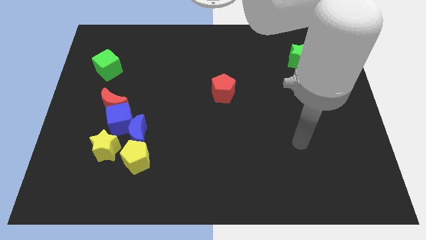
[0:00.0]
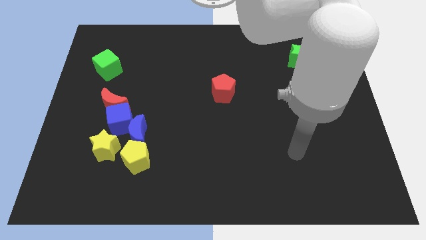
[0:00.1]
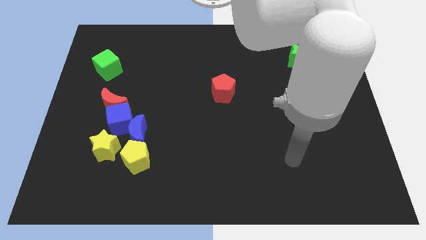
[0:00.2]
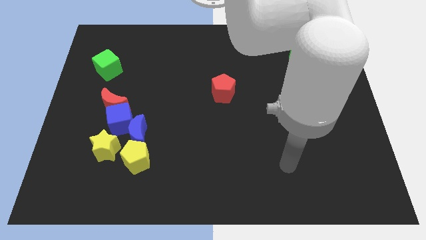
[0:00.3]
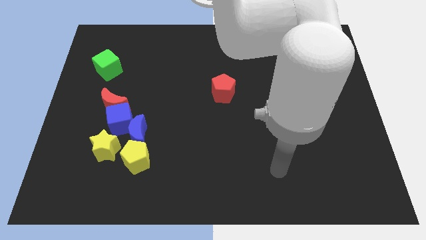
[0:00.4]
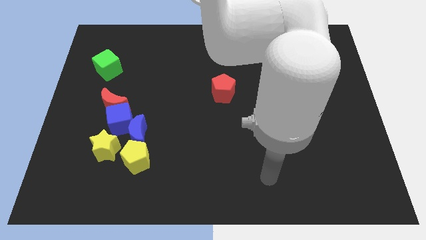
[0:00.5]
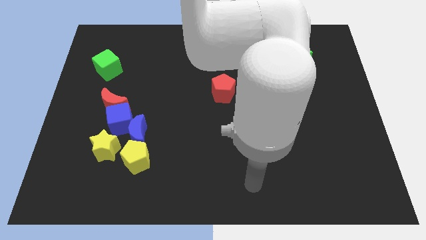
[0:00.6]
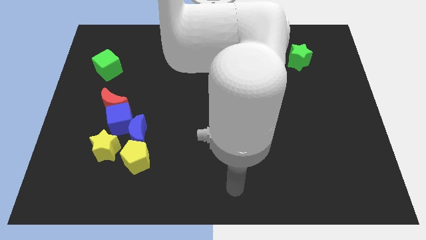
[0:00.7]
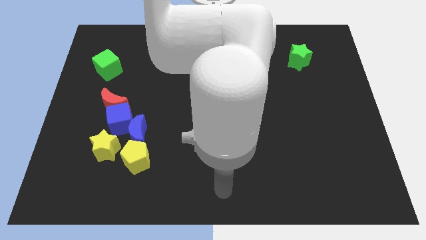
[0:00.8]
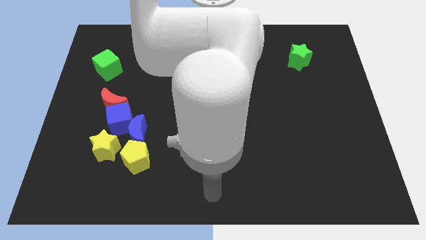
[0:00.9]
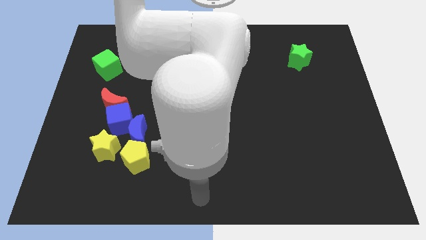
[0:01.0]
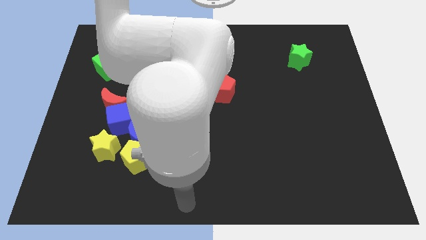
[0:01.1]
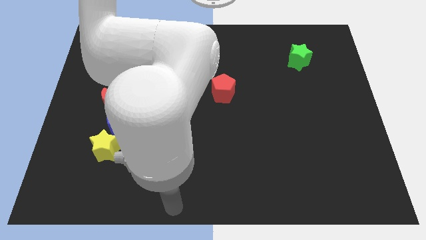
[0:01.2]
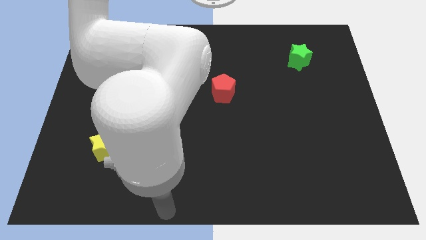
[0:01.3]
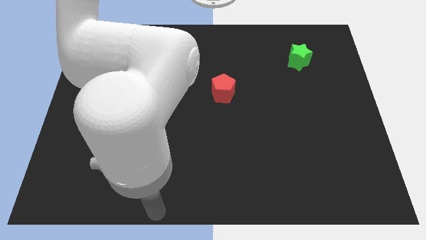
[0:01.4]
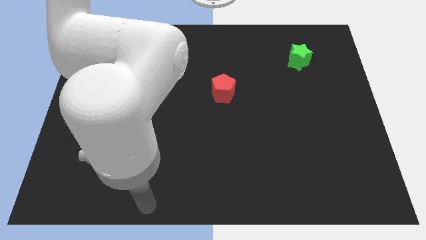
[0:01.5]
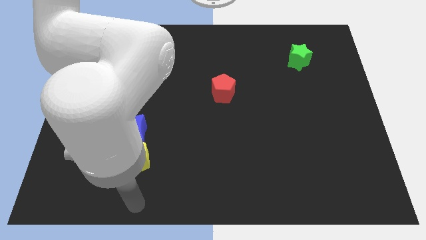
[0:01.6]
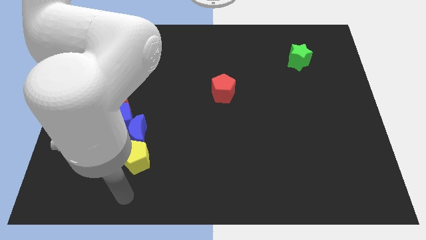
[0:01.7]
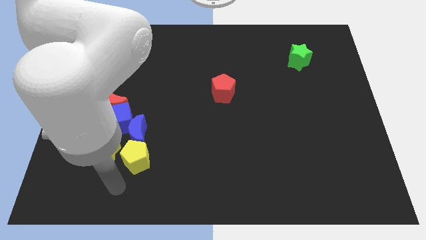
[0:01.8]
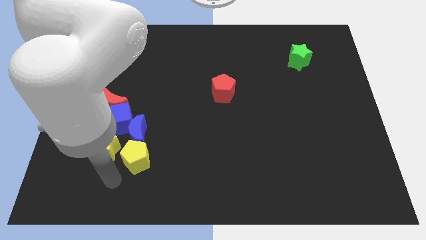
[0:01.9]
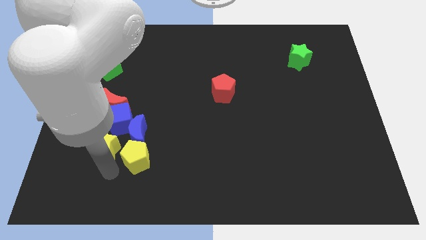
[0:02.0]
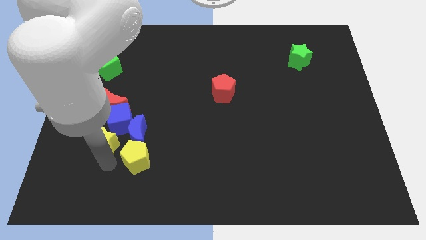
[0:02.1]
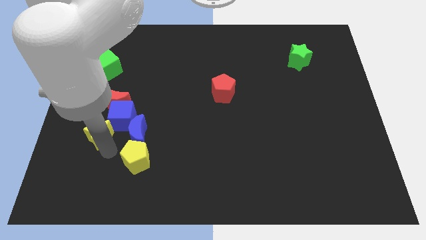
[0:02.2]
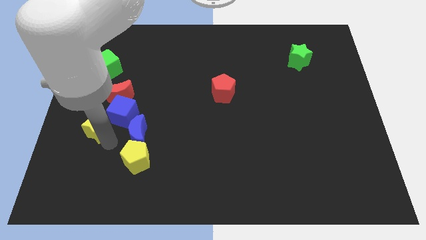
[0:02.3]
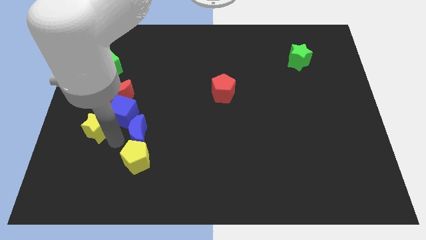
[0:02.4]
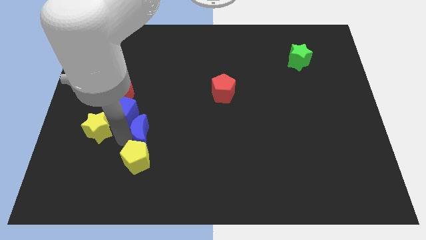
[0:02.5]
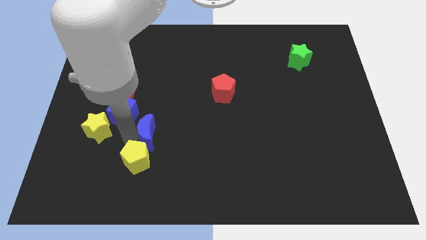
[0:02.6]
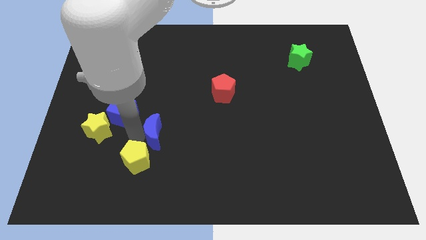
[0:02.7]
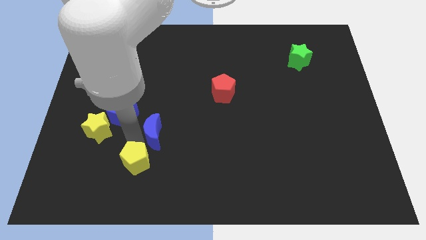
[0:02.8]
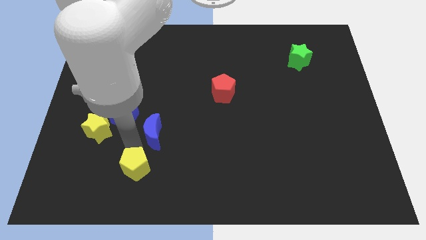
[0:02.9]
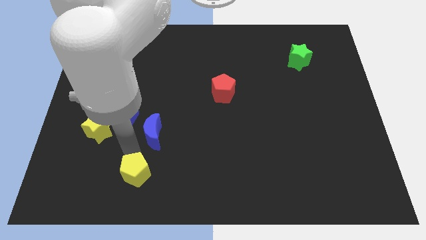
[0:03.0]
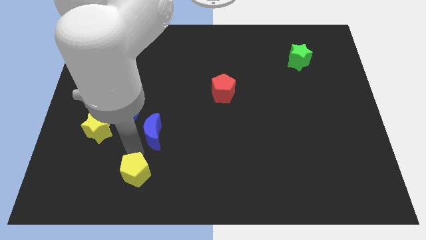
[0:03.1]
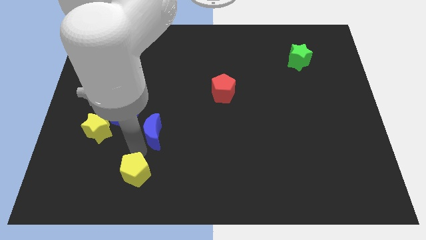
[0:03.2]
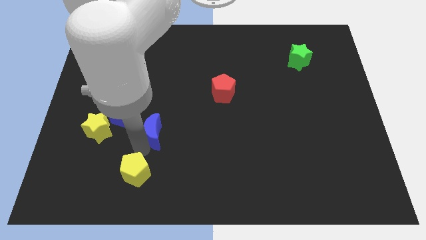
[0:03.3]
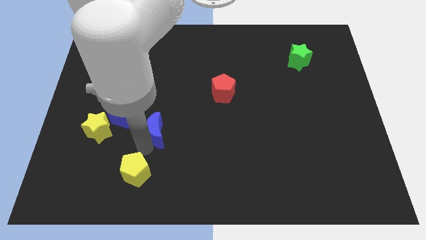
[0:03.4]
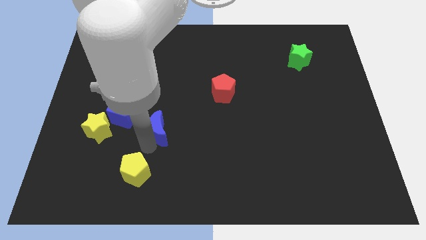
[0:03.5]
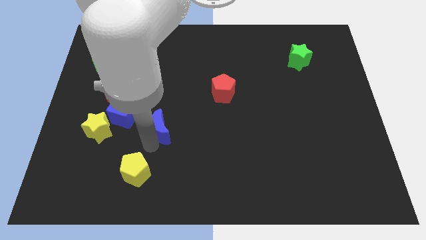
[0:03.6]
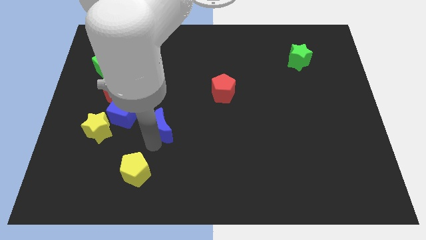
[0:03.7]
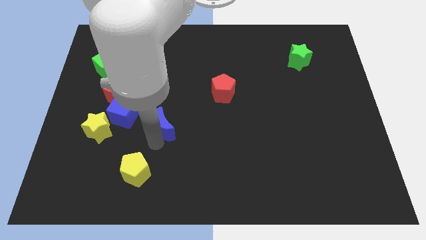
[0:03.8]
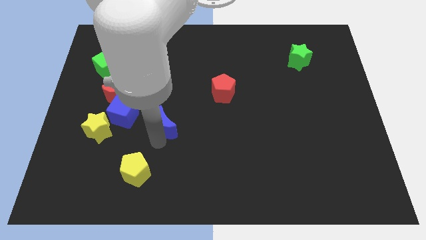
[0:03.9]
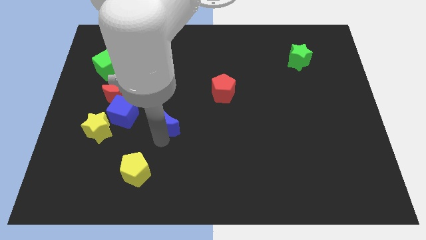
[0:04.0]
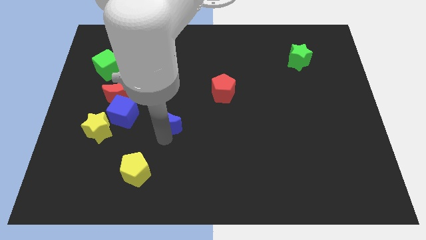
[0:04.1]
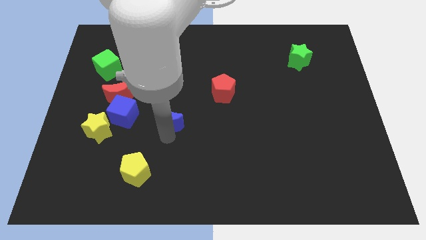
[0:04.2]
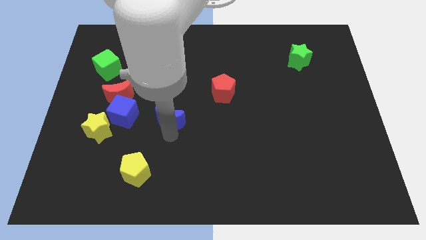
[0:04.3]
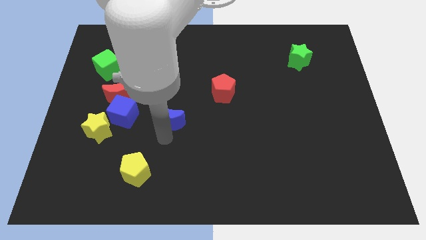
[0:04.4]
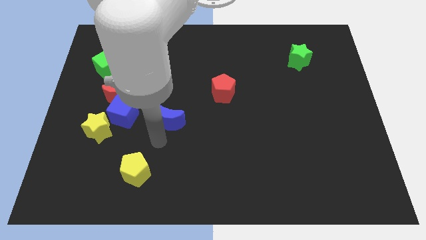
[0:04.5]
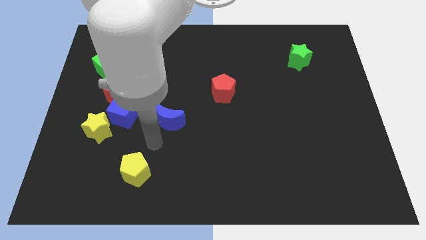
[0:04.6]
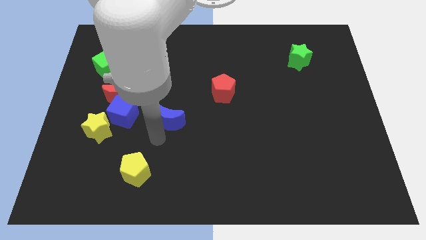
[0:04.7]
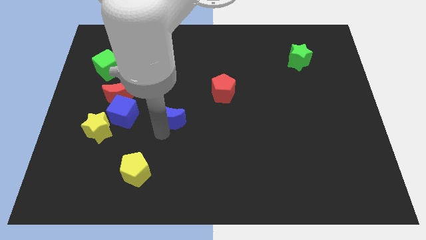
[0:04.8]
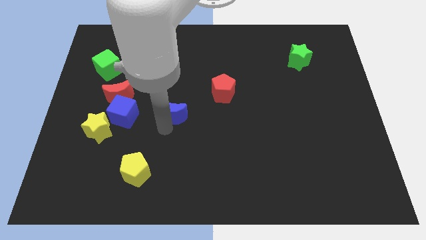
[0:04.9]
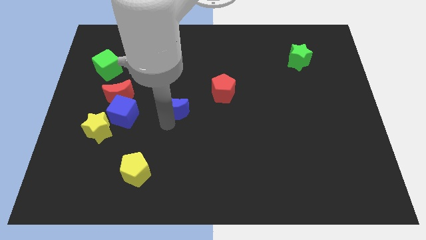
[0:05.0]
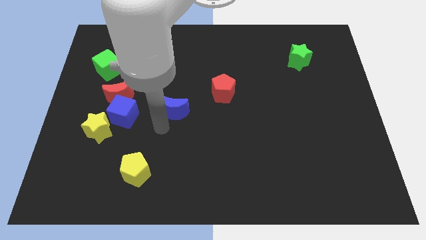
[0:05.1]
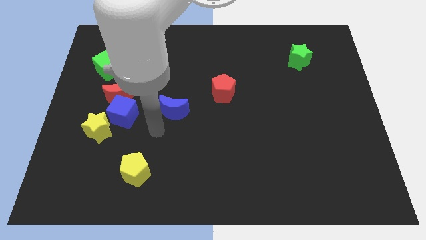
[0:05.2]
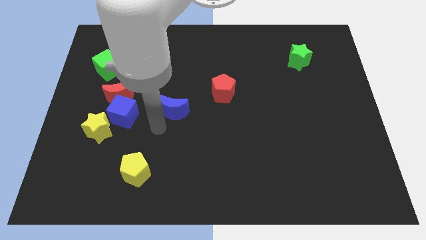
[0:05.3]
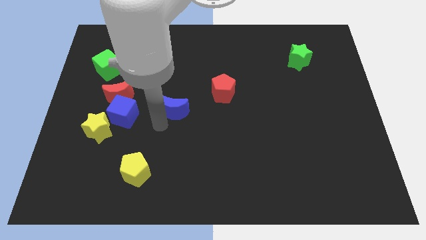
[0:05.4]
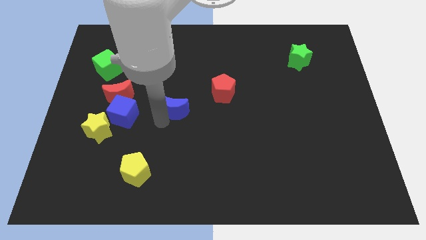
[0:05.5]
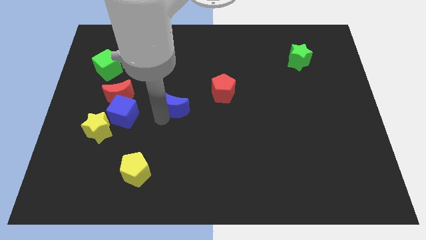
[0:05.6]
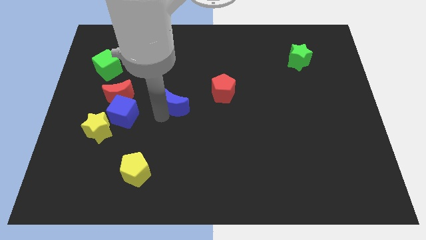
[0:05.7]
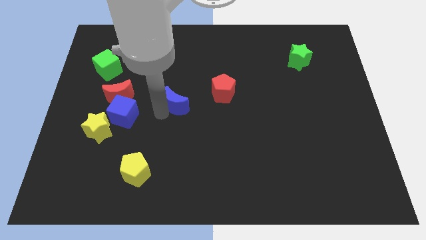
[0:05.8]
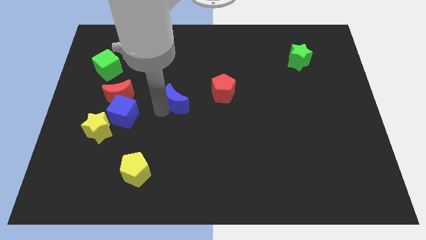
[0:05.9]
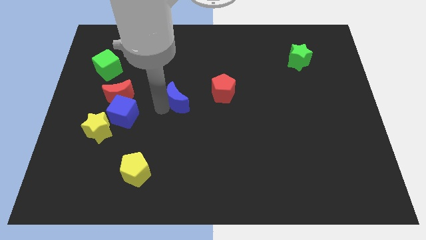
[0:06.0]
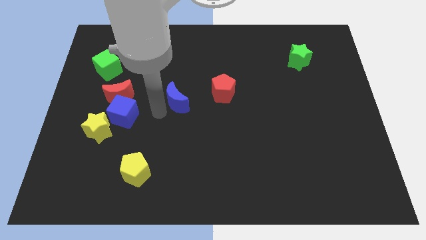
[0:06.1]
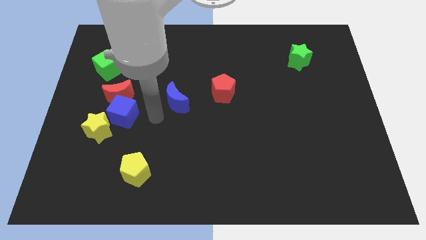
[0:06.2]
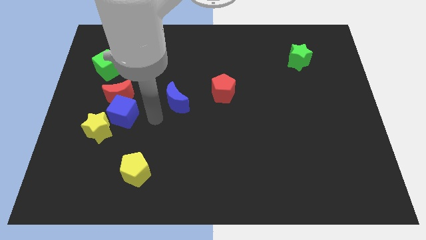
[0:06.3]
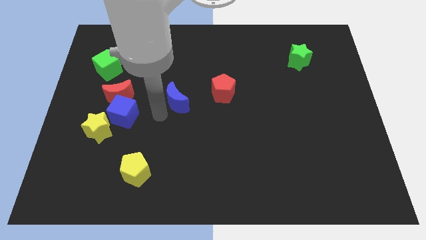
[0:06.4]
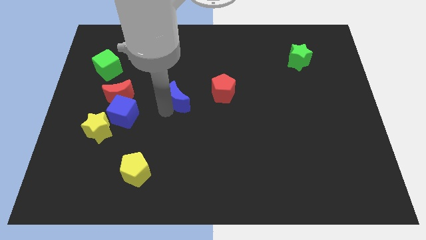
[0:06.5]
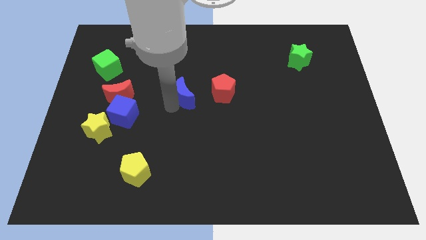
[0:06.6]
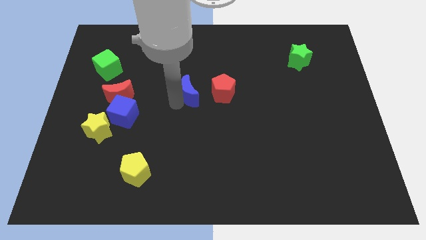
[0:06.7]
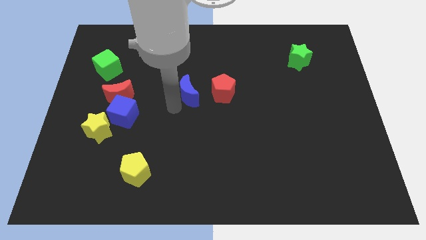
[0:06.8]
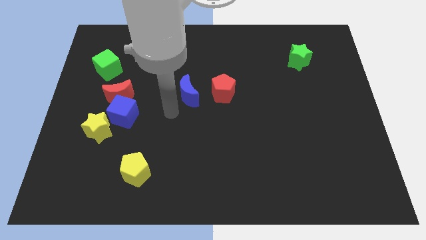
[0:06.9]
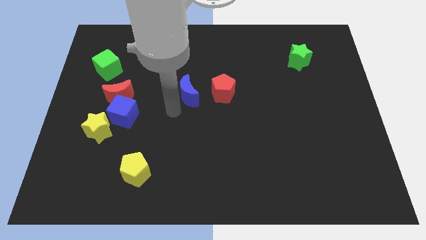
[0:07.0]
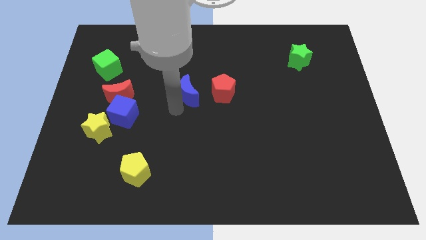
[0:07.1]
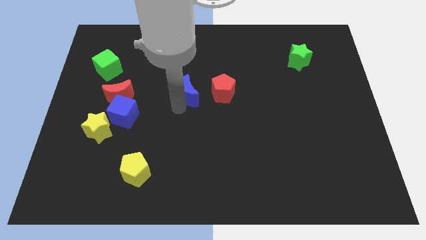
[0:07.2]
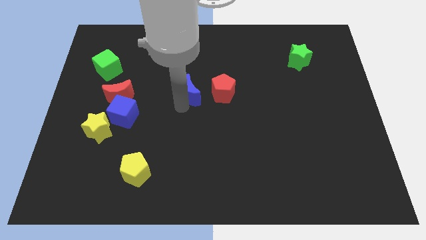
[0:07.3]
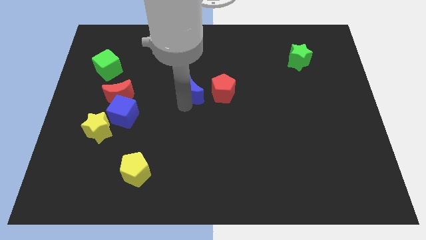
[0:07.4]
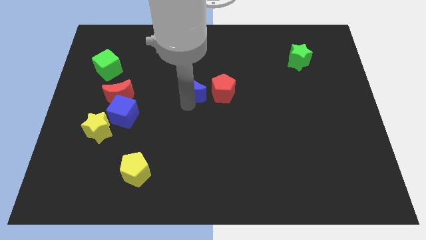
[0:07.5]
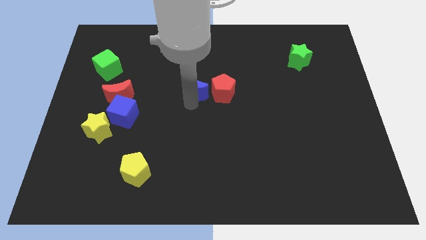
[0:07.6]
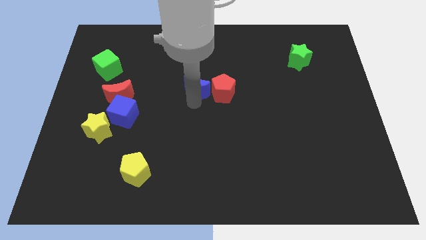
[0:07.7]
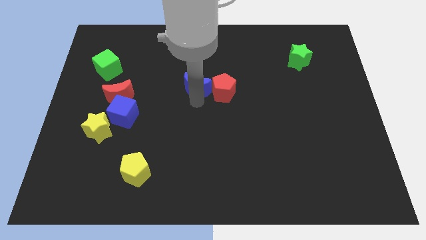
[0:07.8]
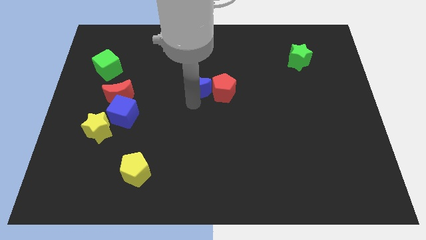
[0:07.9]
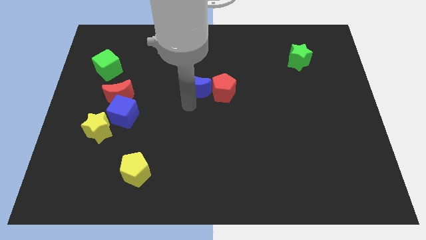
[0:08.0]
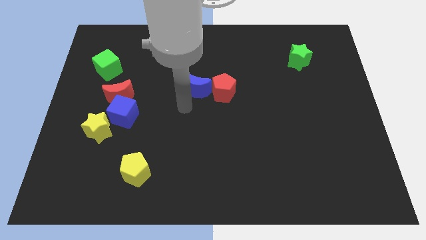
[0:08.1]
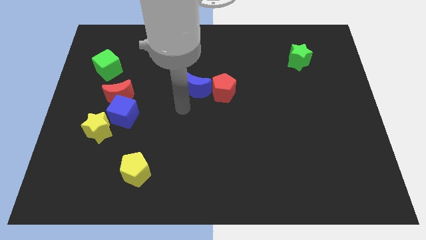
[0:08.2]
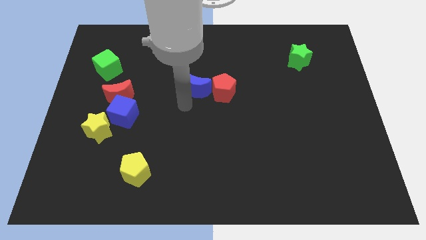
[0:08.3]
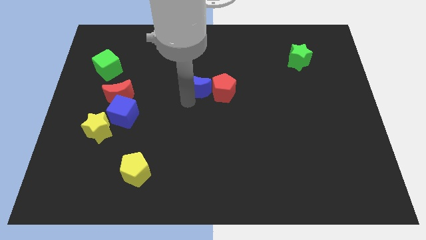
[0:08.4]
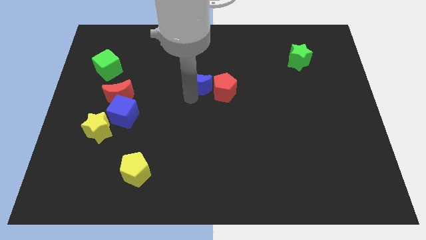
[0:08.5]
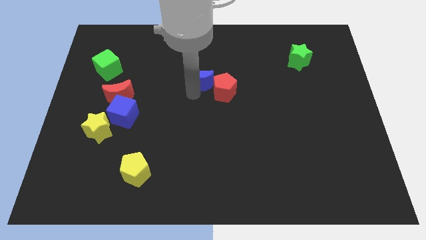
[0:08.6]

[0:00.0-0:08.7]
slide the blue moon diagonally upwards and right
